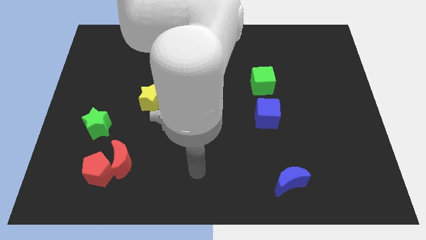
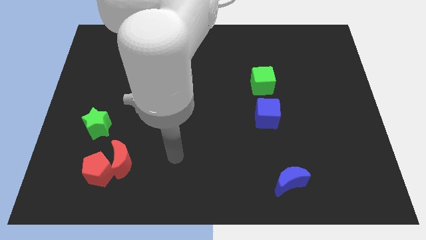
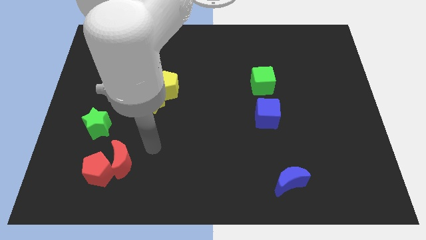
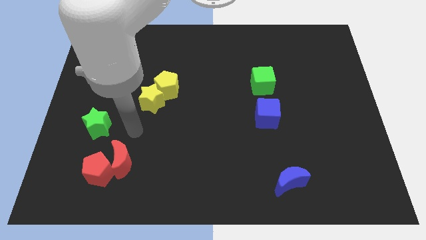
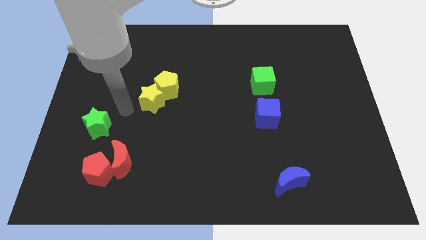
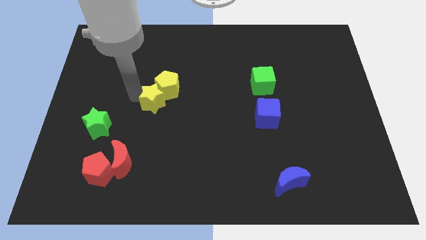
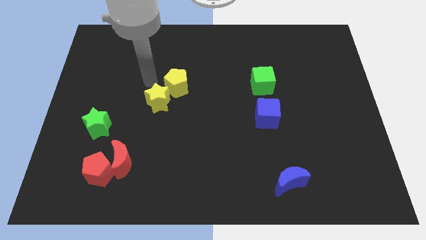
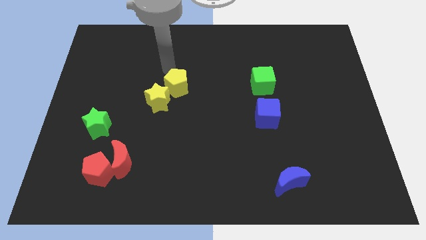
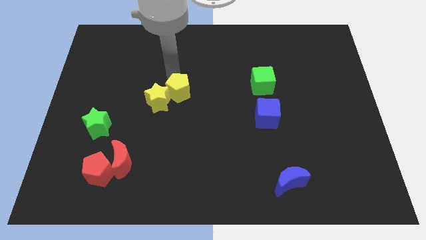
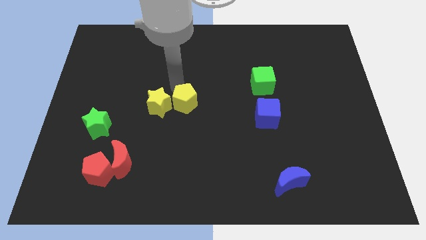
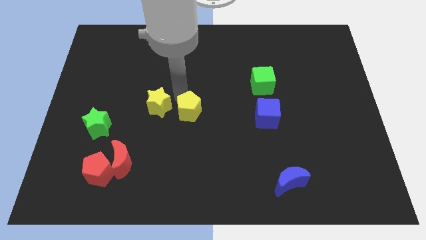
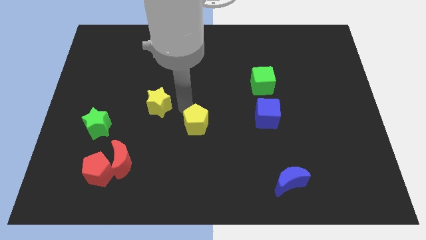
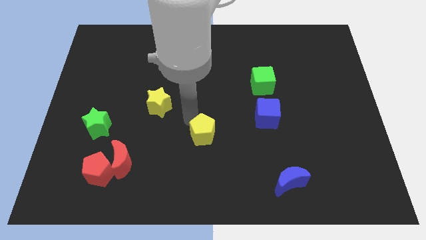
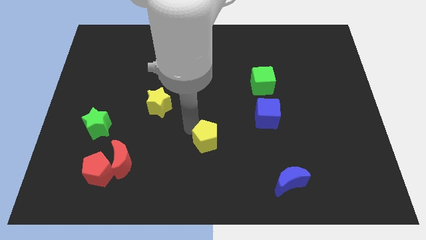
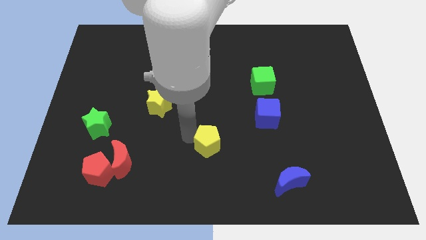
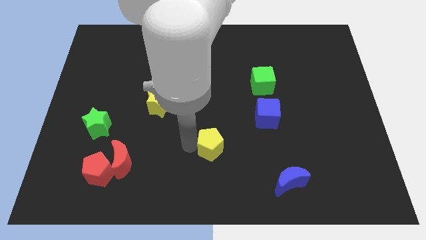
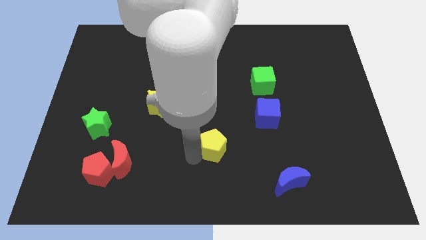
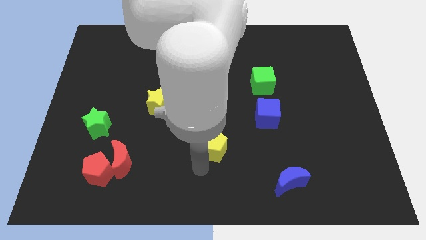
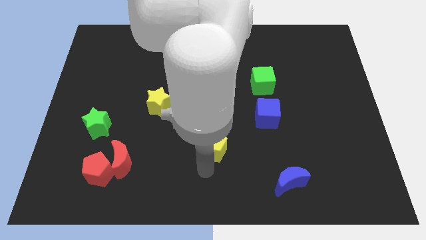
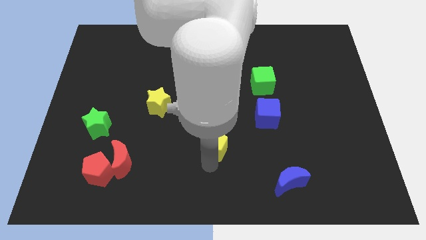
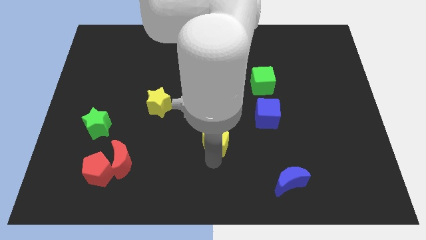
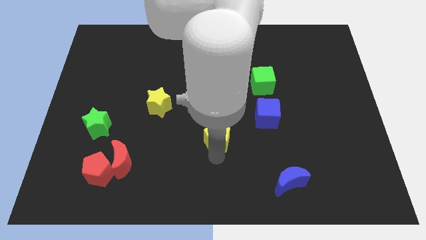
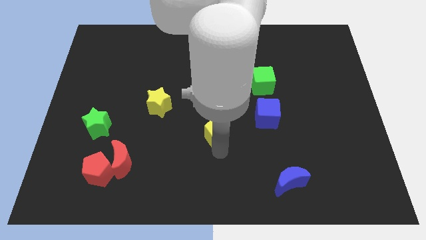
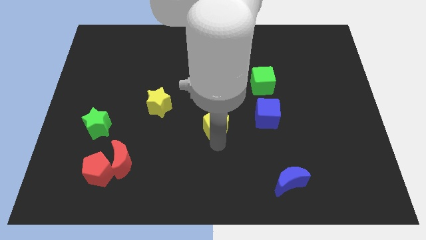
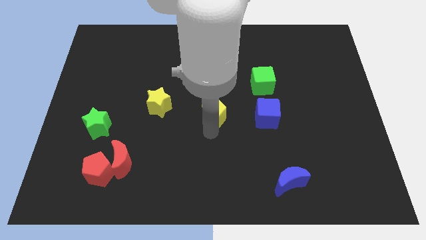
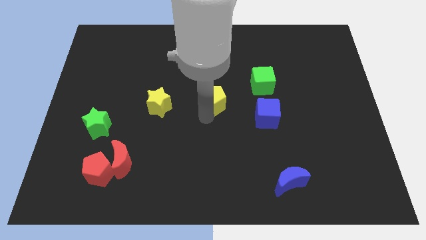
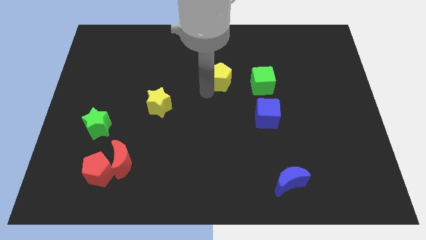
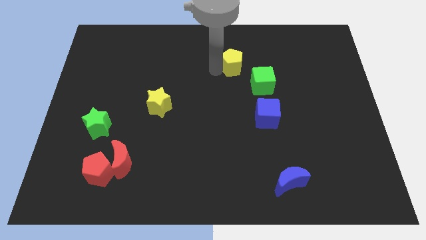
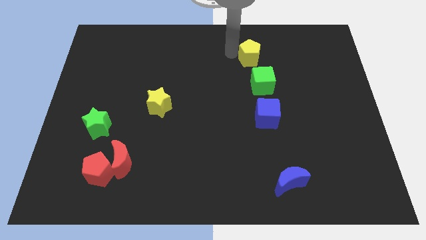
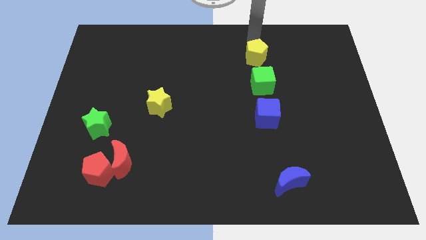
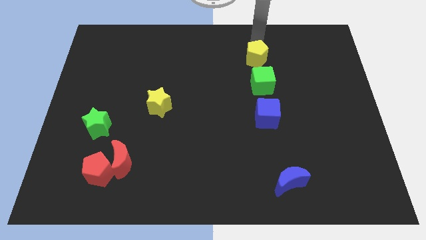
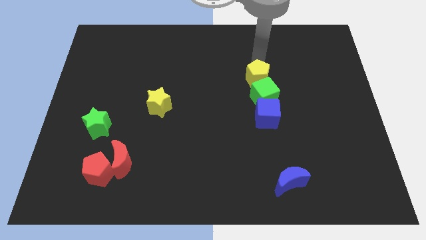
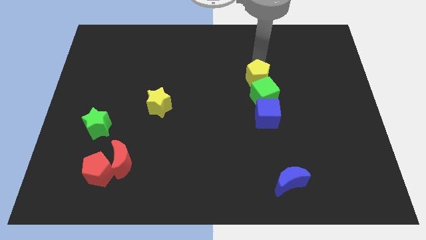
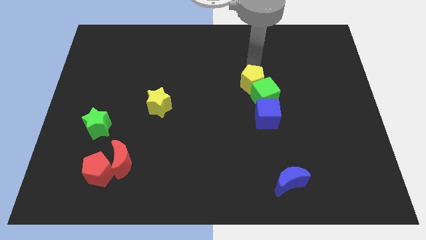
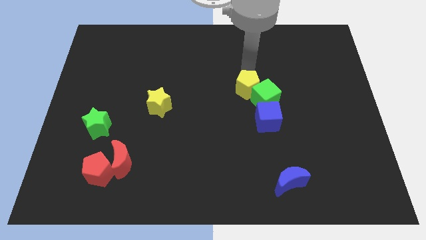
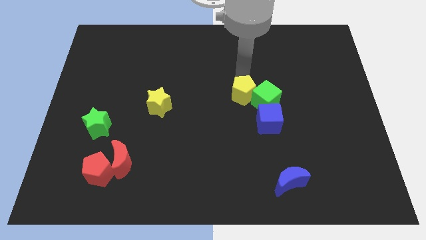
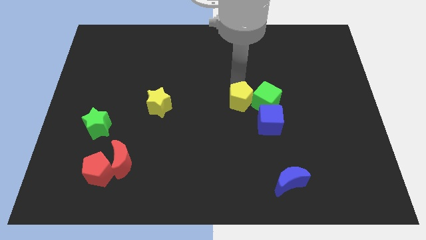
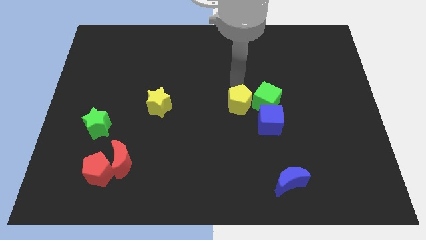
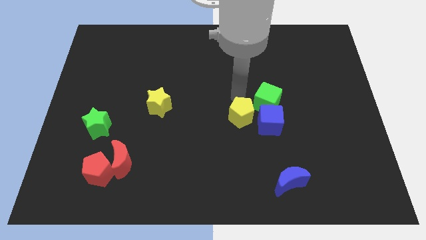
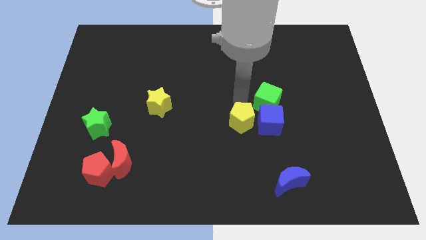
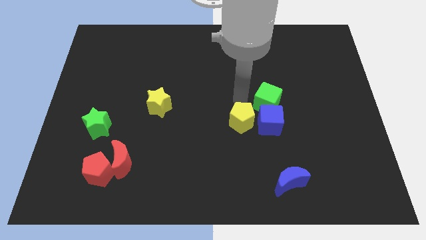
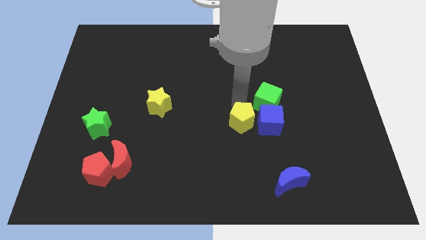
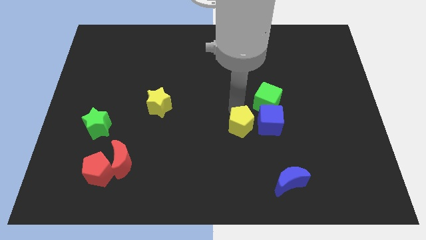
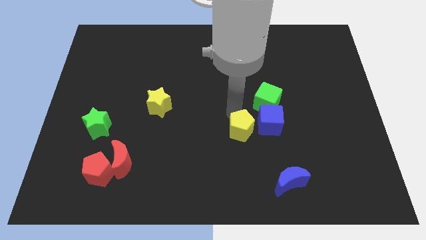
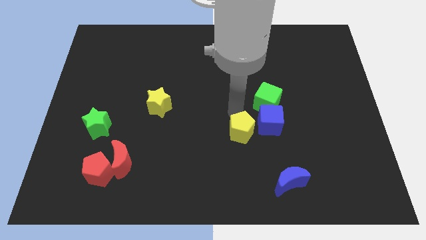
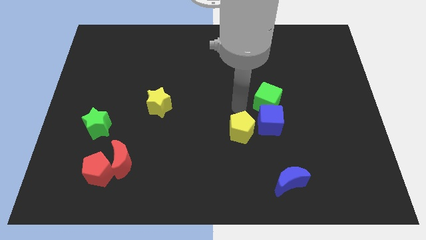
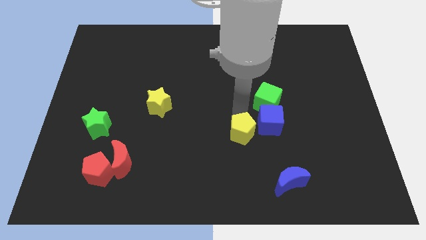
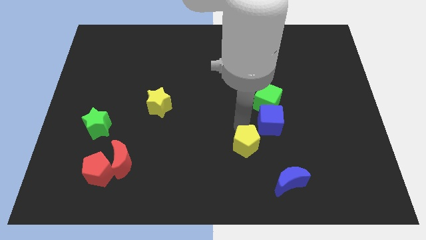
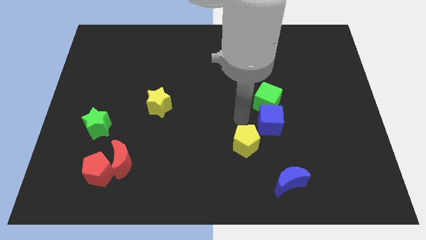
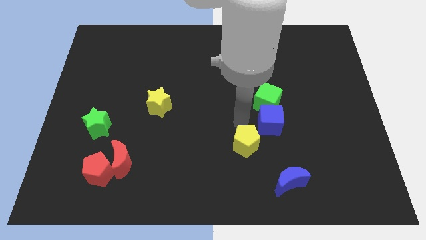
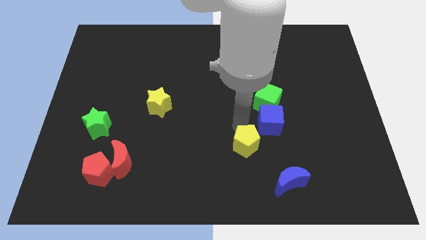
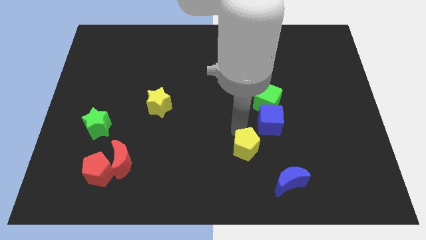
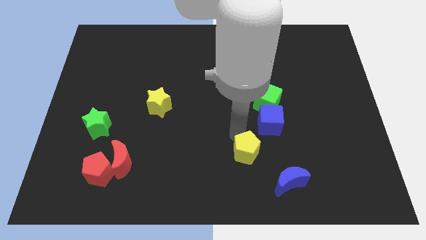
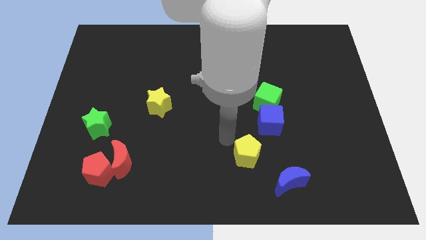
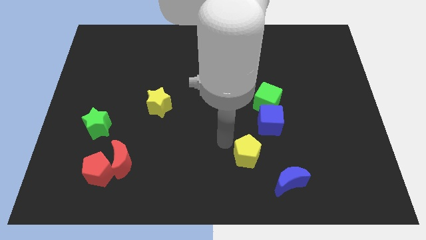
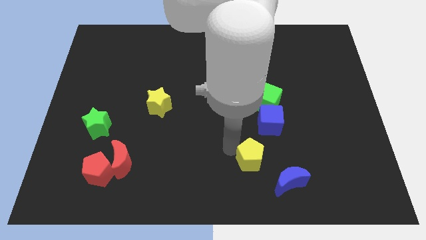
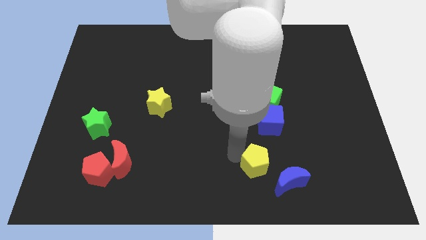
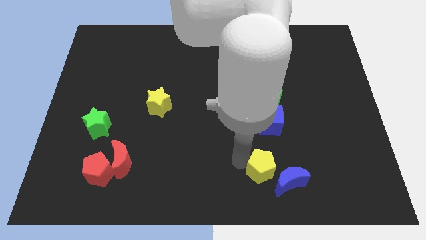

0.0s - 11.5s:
move the yellow pentagon close to the blue moon

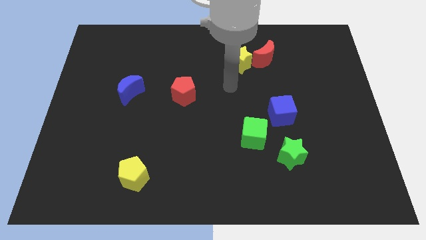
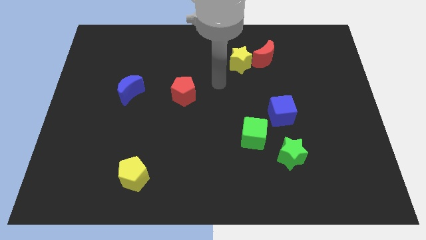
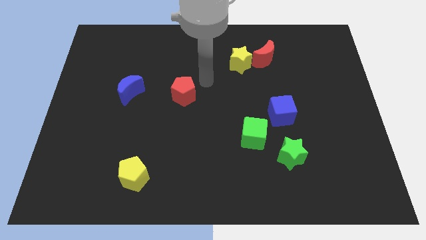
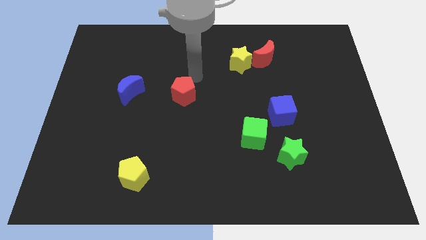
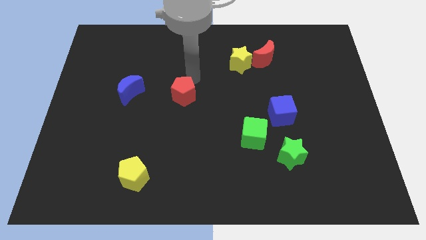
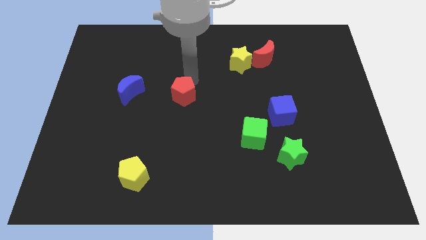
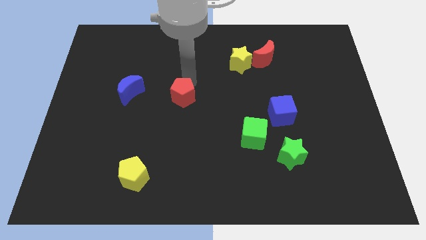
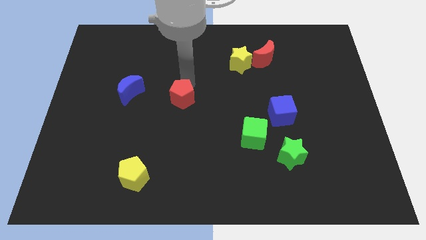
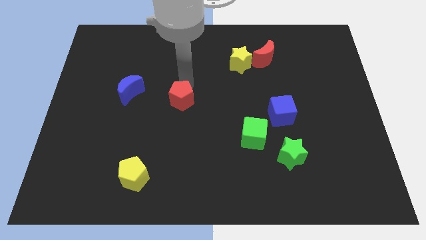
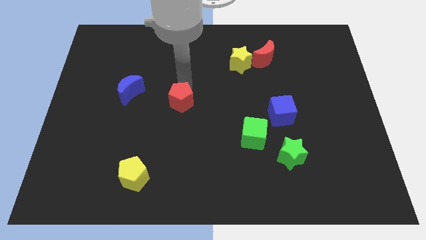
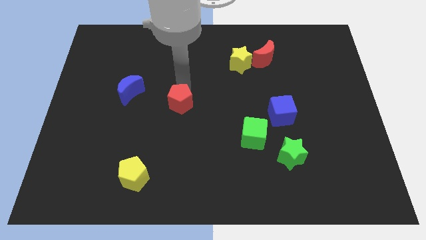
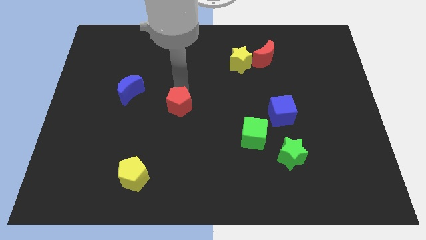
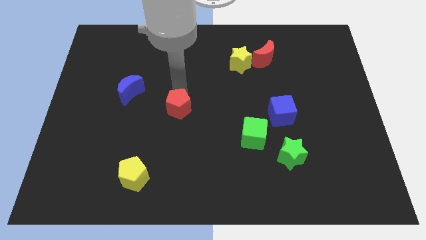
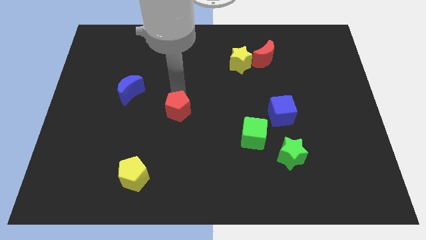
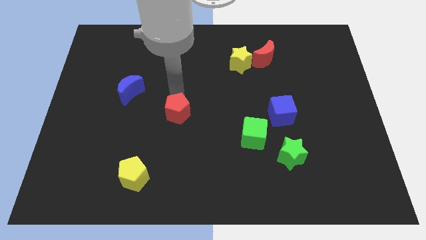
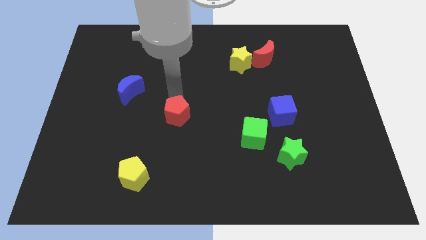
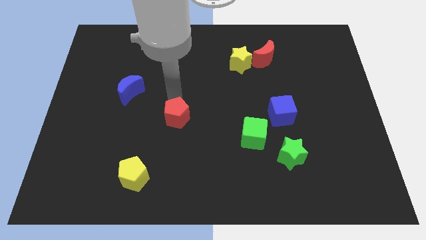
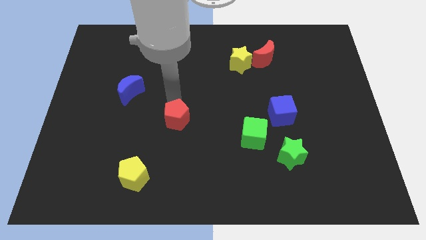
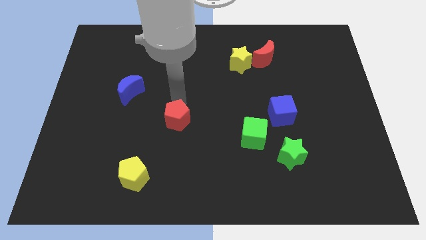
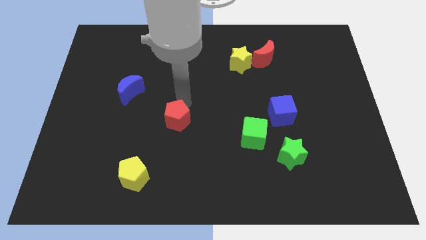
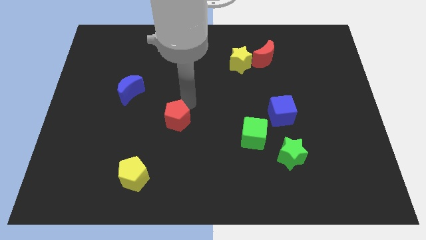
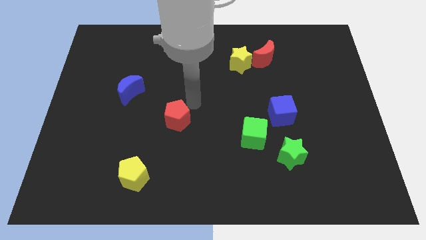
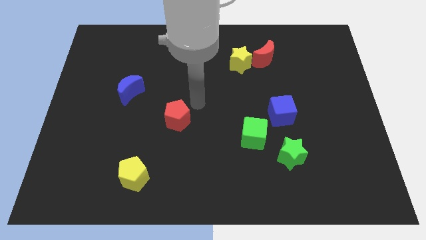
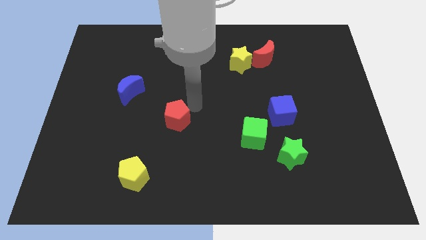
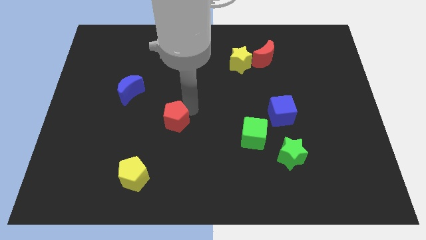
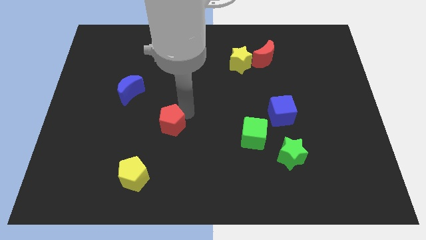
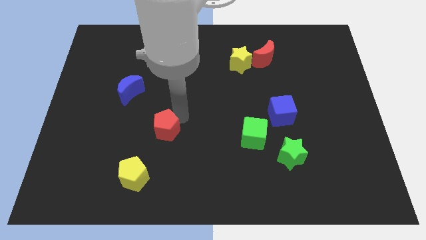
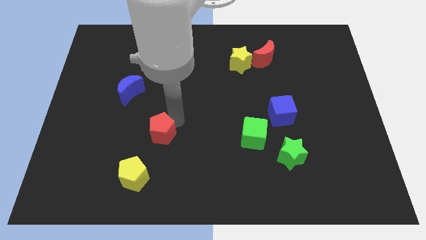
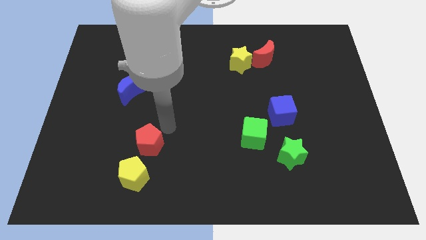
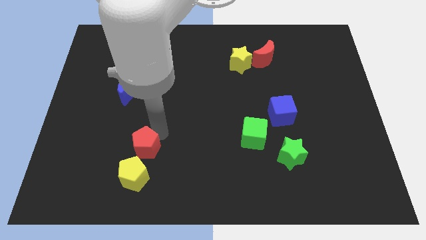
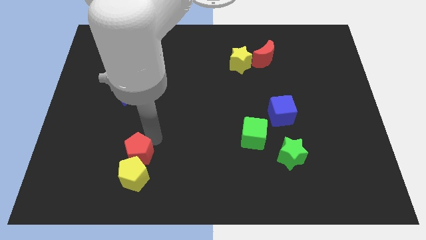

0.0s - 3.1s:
put the red pentagon next to the yellow pentagon
